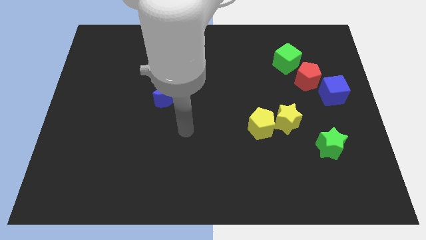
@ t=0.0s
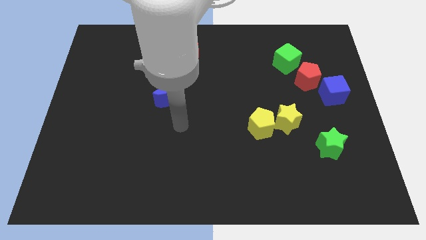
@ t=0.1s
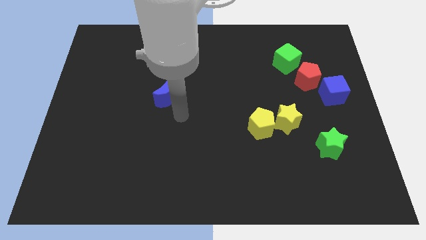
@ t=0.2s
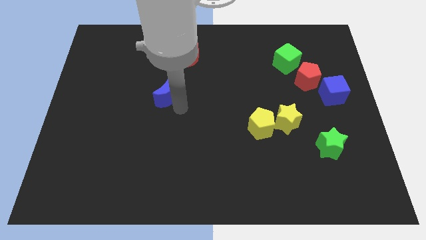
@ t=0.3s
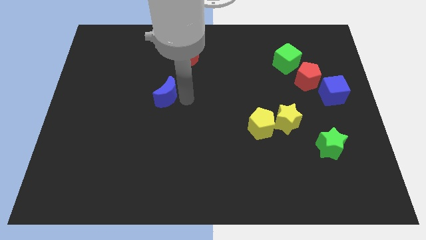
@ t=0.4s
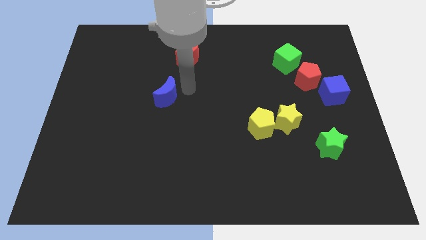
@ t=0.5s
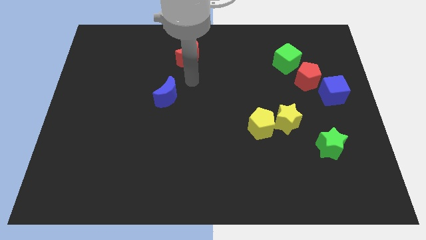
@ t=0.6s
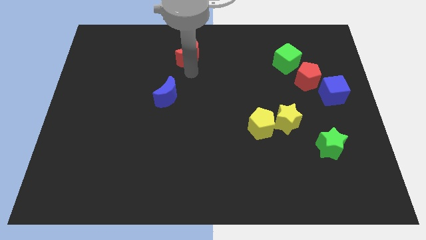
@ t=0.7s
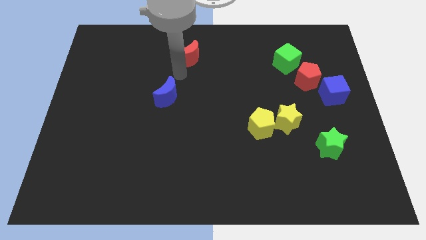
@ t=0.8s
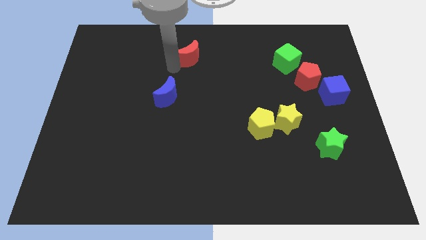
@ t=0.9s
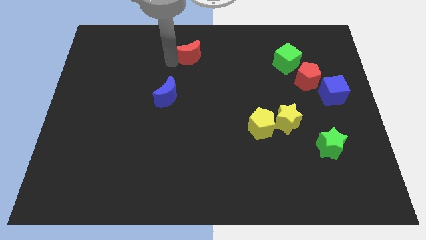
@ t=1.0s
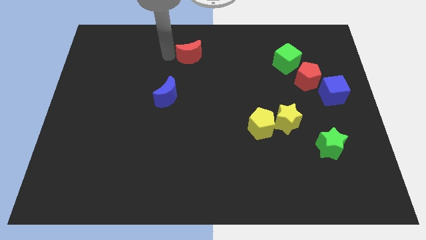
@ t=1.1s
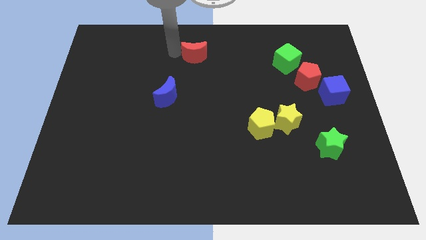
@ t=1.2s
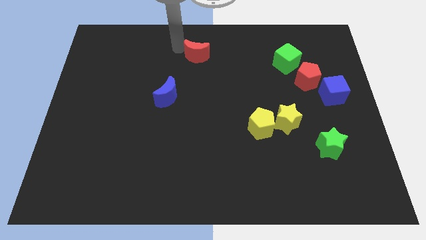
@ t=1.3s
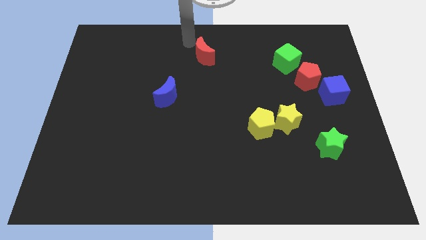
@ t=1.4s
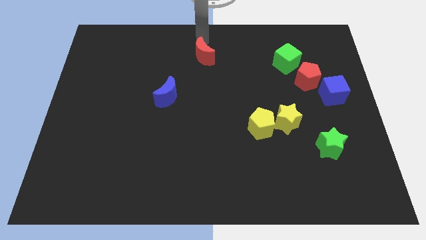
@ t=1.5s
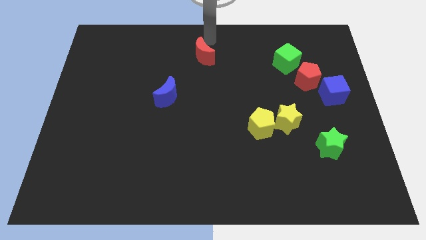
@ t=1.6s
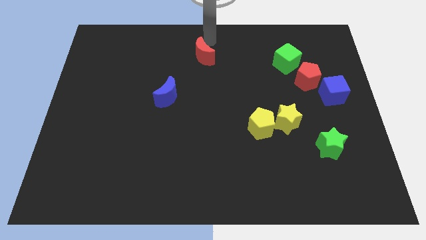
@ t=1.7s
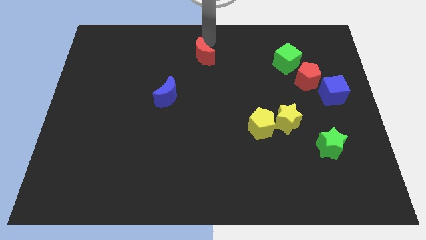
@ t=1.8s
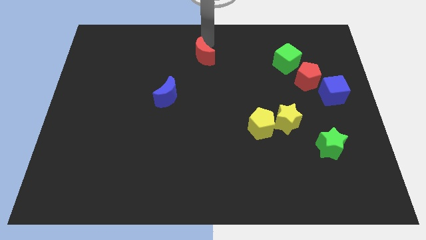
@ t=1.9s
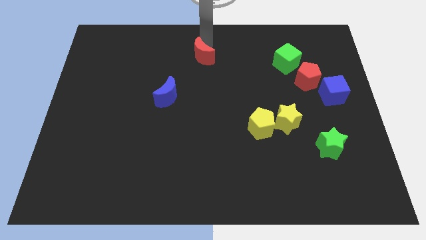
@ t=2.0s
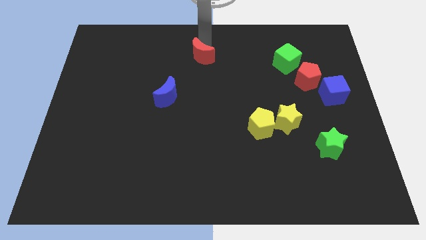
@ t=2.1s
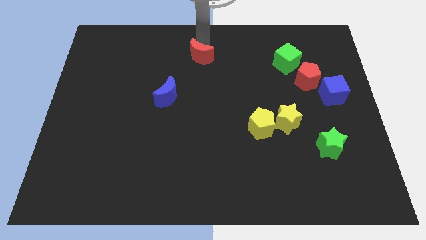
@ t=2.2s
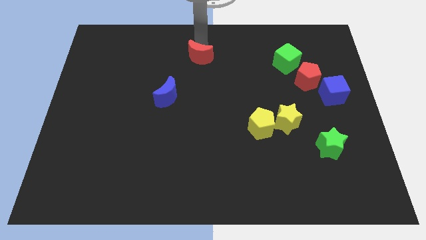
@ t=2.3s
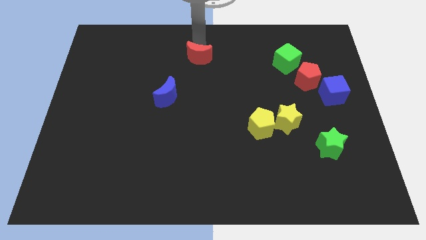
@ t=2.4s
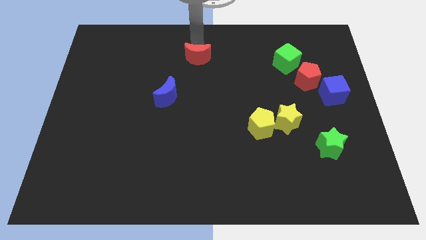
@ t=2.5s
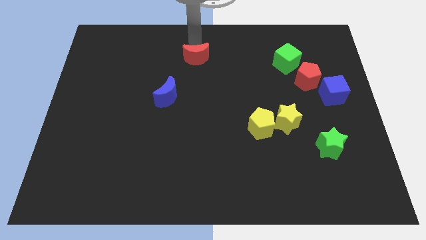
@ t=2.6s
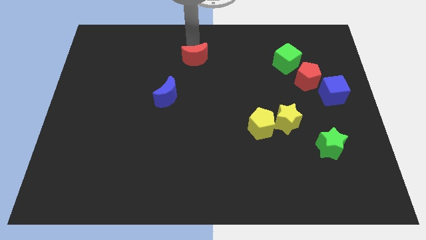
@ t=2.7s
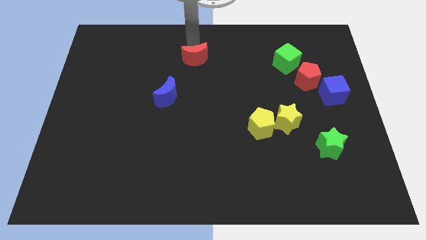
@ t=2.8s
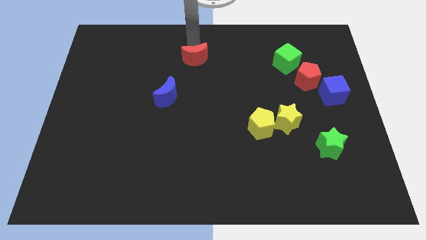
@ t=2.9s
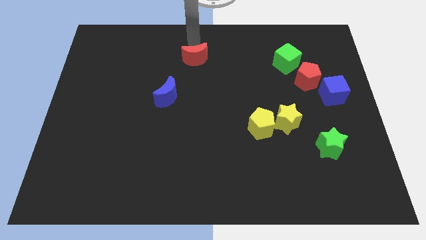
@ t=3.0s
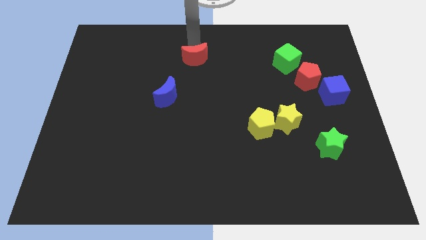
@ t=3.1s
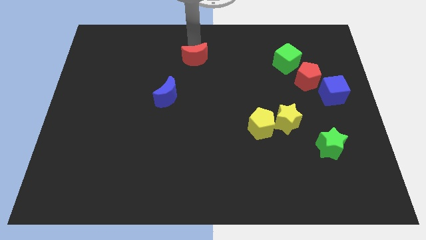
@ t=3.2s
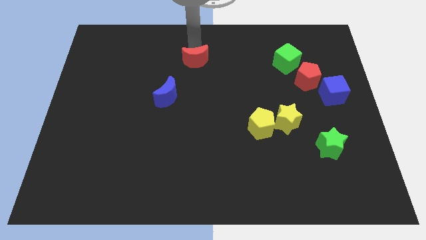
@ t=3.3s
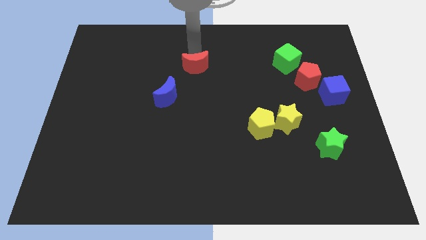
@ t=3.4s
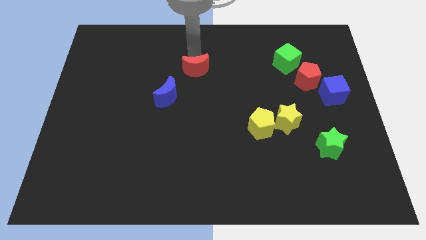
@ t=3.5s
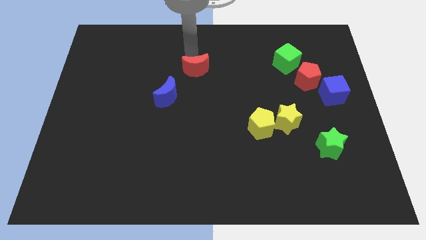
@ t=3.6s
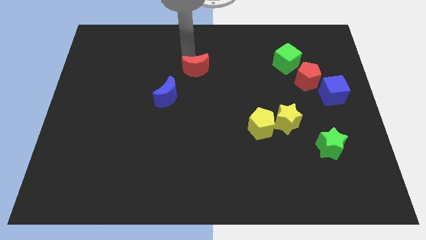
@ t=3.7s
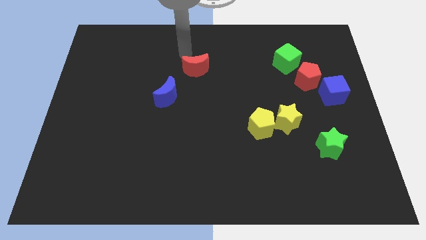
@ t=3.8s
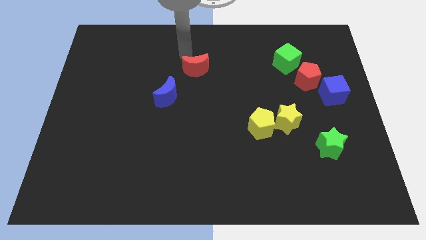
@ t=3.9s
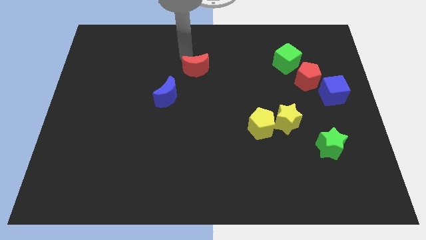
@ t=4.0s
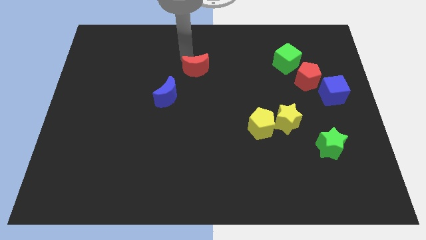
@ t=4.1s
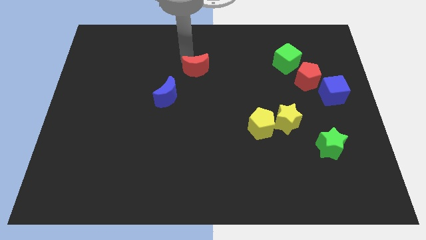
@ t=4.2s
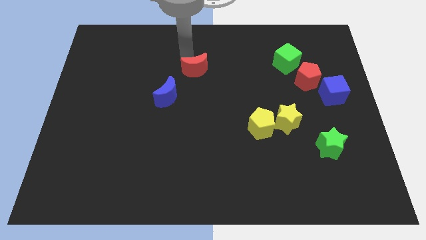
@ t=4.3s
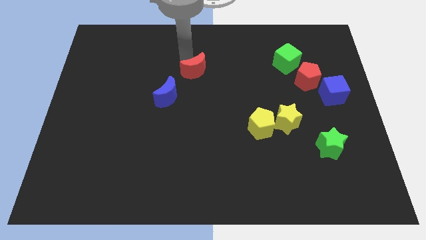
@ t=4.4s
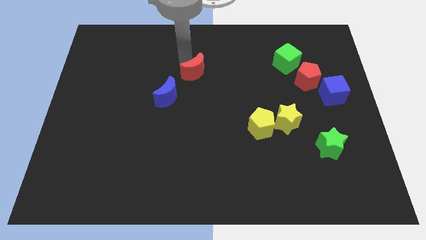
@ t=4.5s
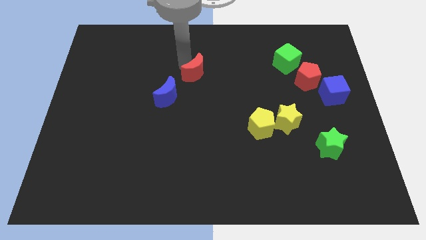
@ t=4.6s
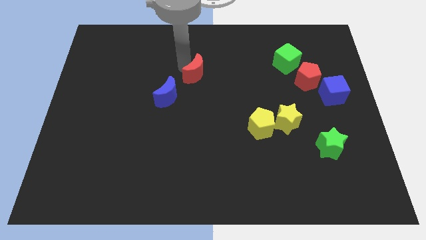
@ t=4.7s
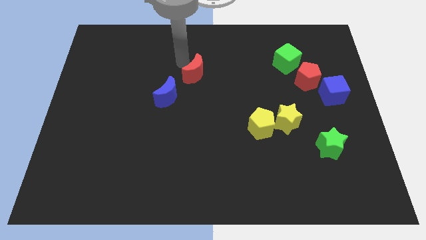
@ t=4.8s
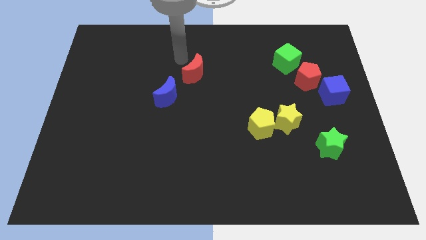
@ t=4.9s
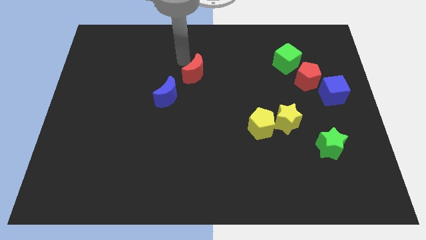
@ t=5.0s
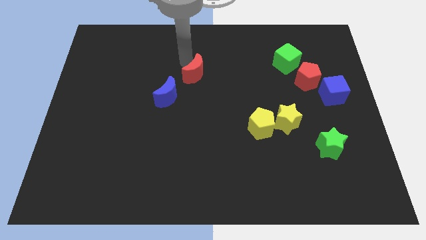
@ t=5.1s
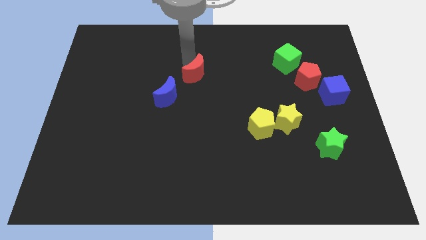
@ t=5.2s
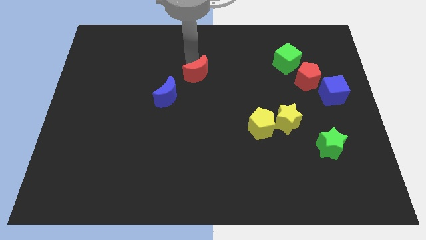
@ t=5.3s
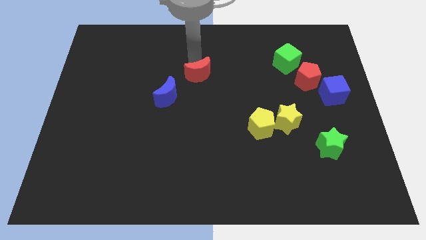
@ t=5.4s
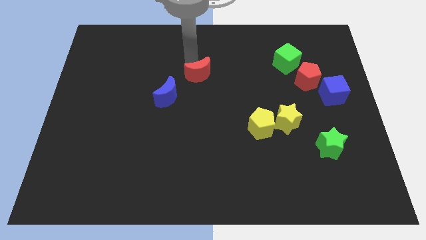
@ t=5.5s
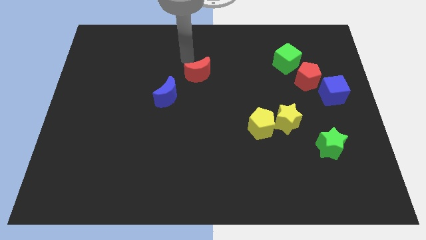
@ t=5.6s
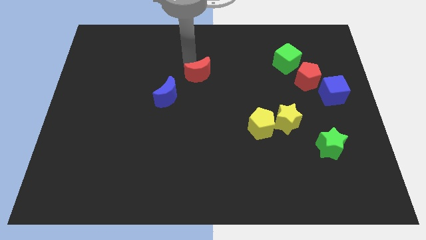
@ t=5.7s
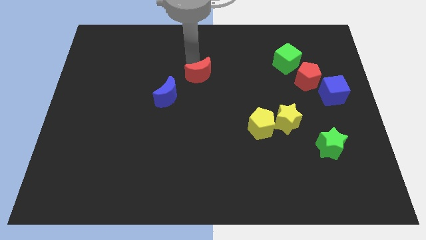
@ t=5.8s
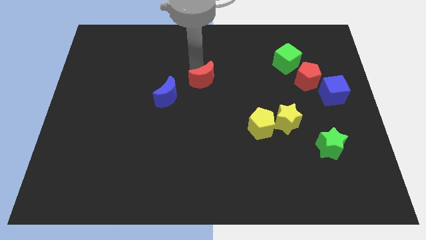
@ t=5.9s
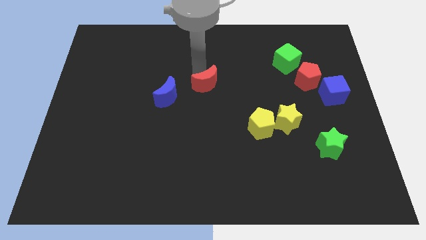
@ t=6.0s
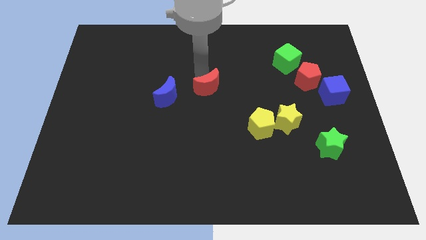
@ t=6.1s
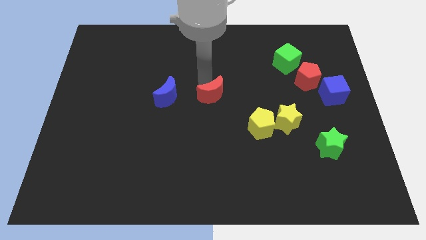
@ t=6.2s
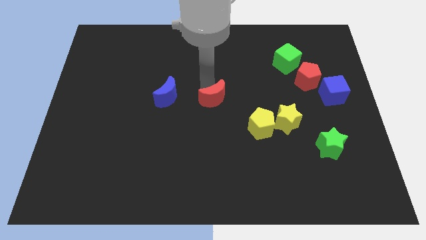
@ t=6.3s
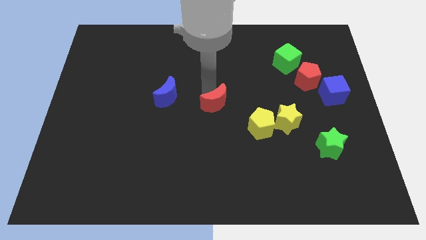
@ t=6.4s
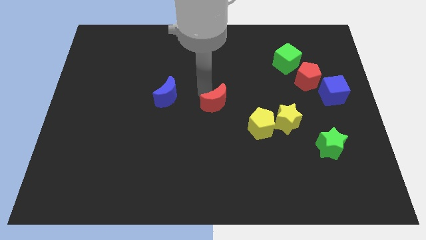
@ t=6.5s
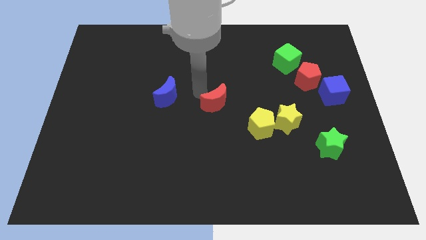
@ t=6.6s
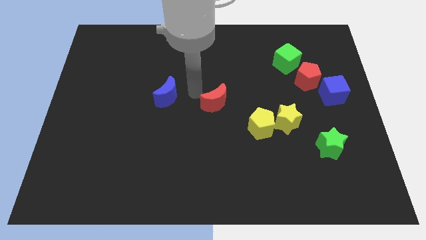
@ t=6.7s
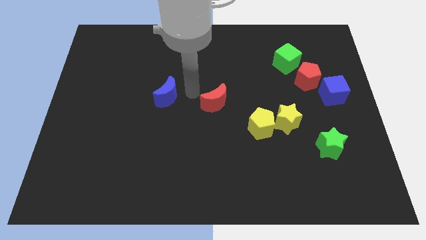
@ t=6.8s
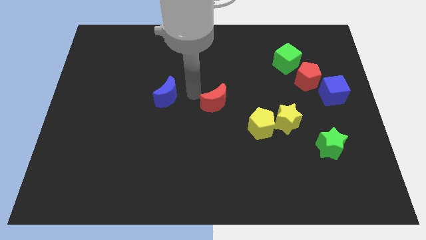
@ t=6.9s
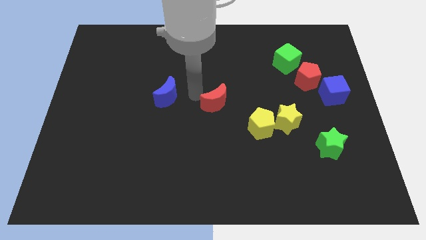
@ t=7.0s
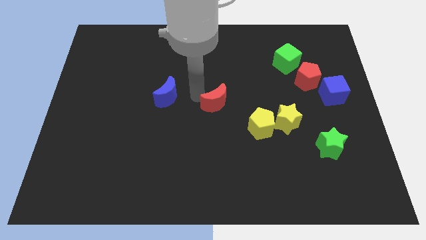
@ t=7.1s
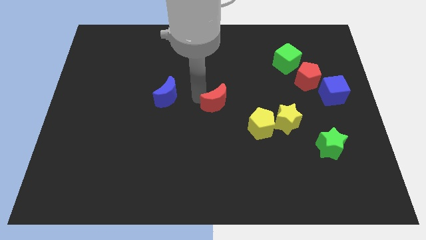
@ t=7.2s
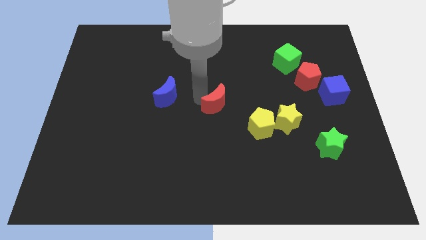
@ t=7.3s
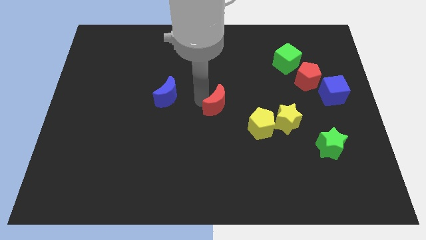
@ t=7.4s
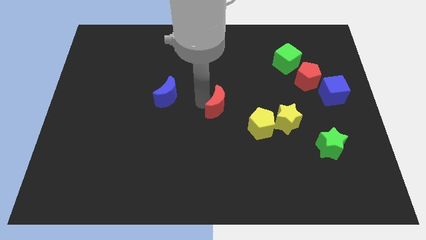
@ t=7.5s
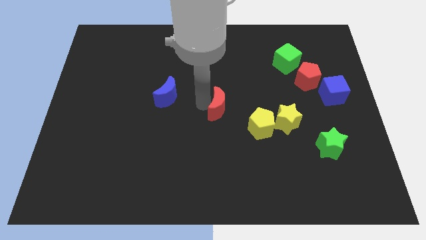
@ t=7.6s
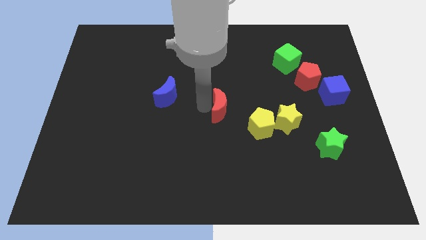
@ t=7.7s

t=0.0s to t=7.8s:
move the red moon to the left of the yellow star
